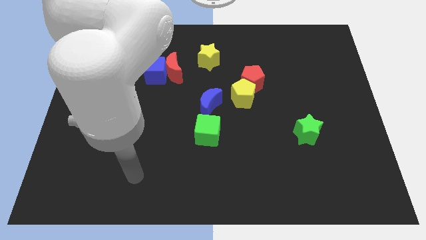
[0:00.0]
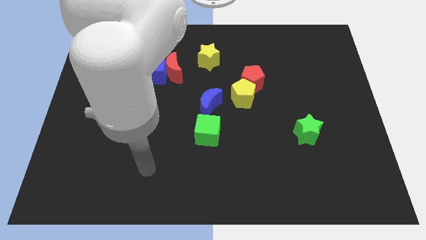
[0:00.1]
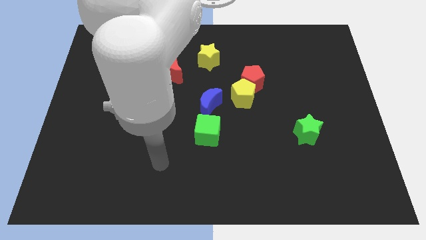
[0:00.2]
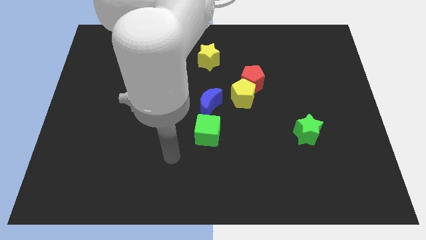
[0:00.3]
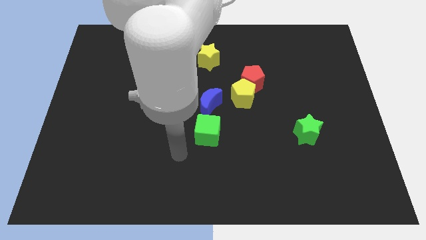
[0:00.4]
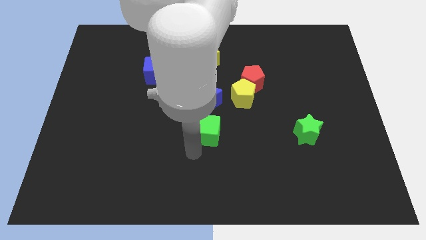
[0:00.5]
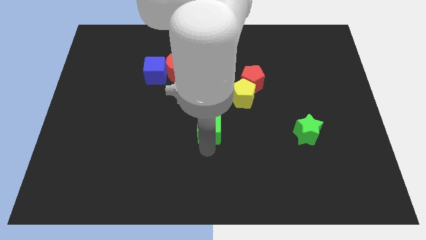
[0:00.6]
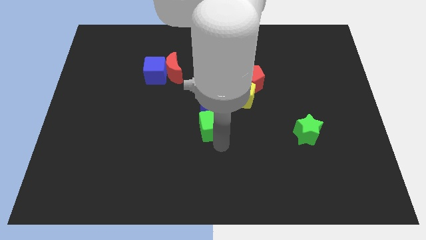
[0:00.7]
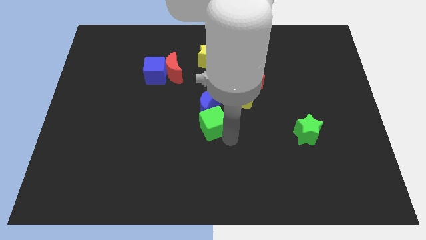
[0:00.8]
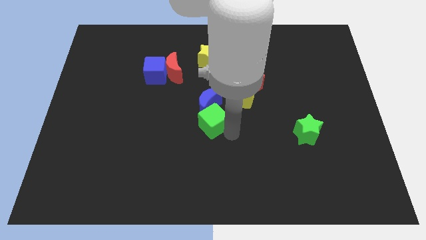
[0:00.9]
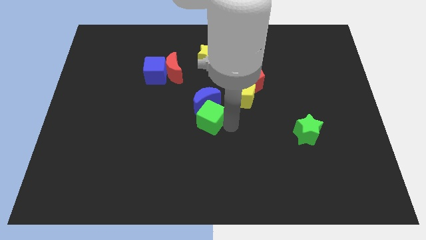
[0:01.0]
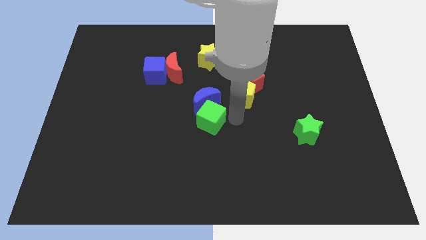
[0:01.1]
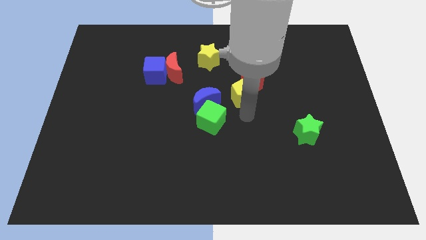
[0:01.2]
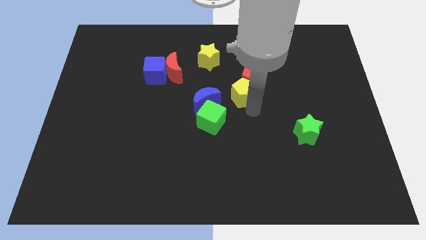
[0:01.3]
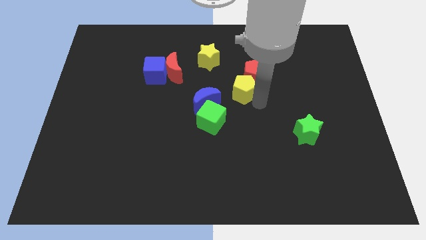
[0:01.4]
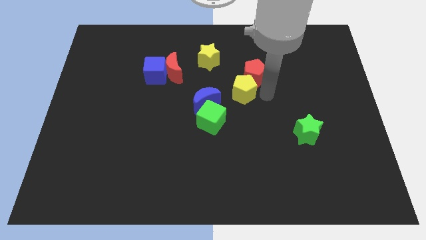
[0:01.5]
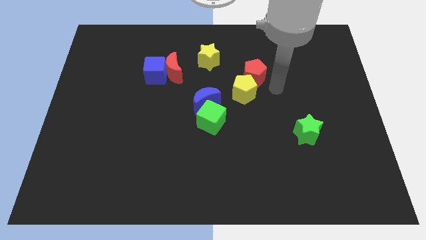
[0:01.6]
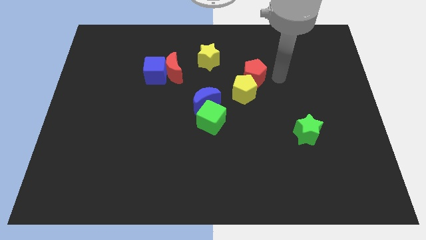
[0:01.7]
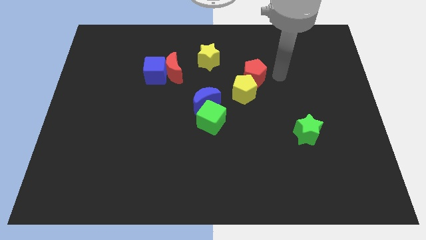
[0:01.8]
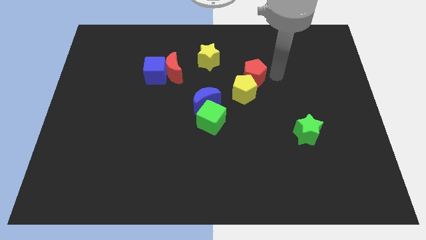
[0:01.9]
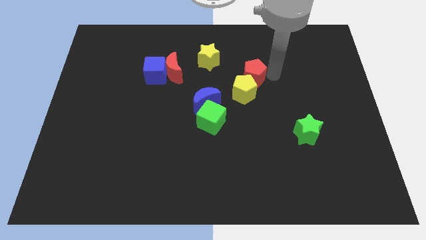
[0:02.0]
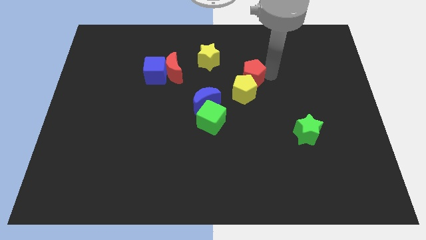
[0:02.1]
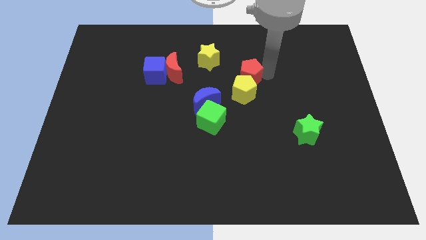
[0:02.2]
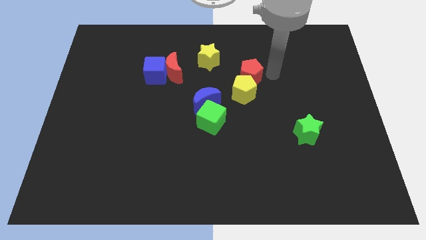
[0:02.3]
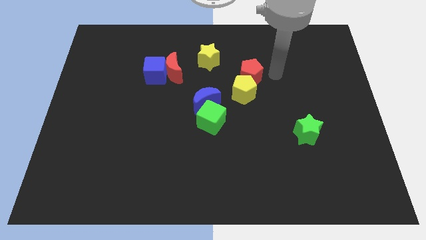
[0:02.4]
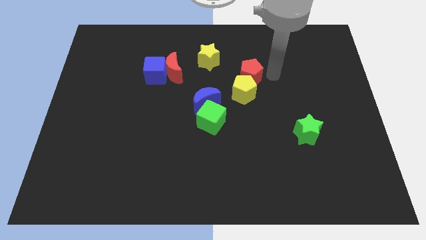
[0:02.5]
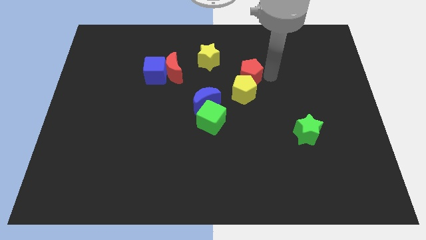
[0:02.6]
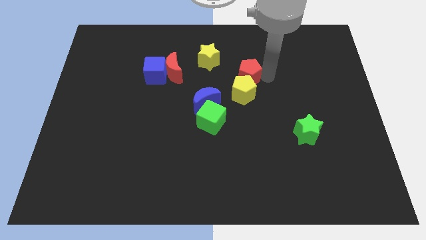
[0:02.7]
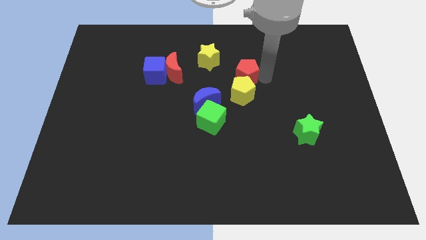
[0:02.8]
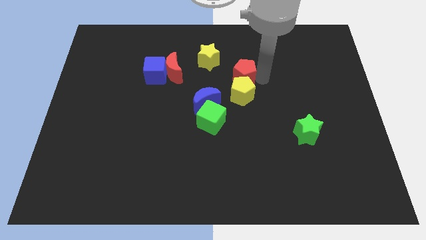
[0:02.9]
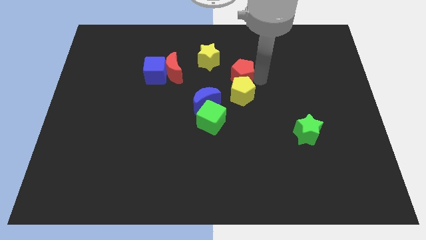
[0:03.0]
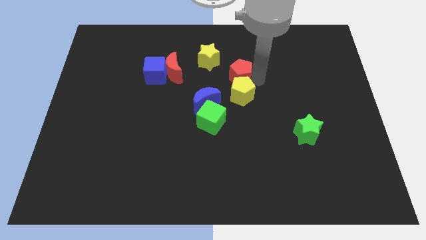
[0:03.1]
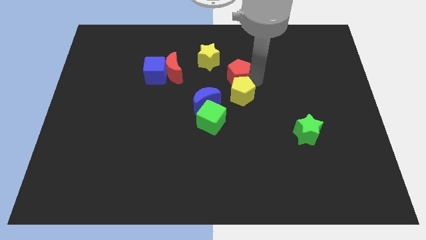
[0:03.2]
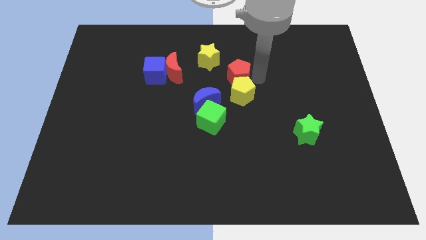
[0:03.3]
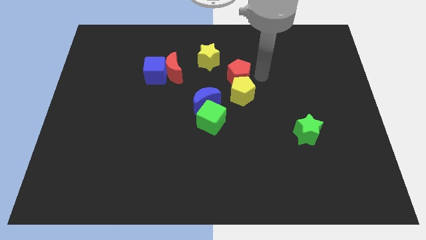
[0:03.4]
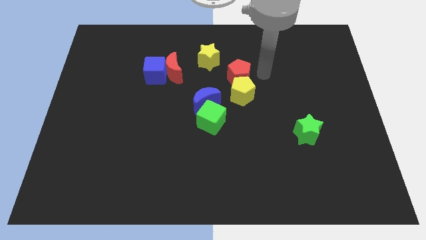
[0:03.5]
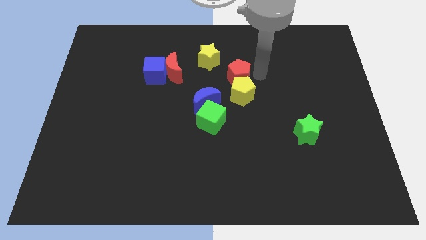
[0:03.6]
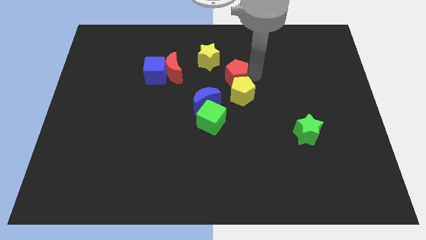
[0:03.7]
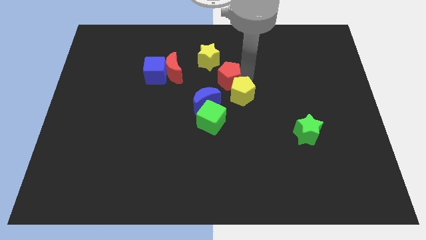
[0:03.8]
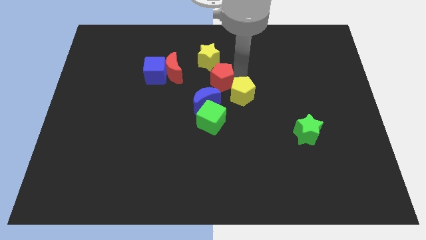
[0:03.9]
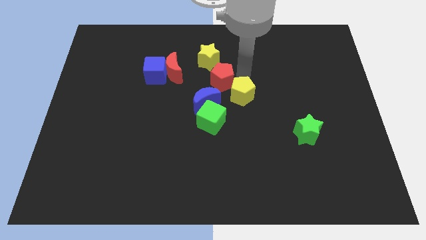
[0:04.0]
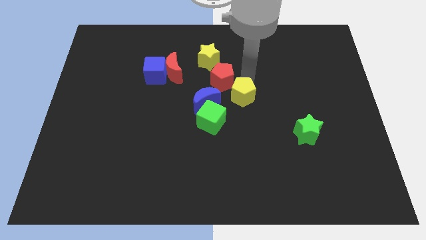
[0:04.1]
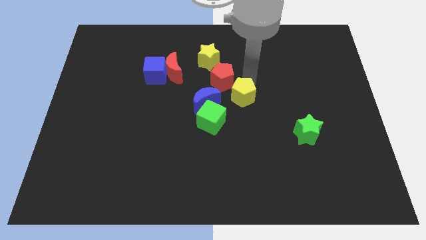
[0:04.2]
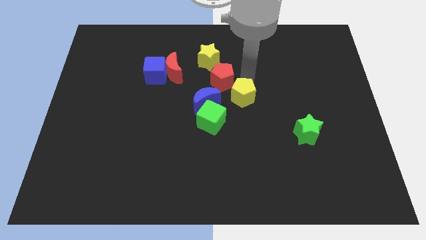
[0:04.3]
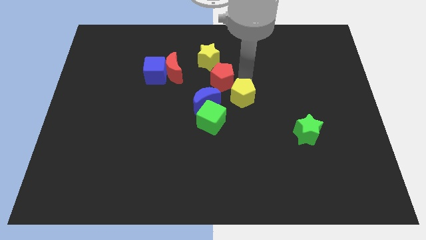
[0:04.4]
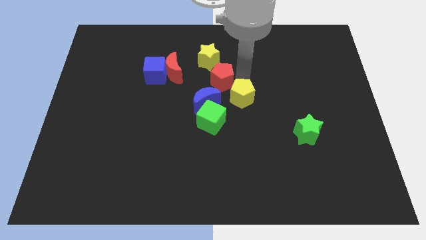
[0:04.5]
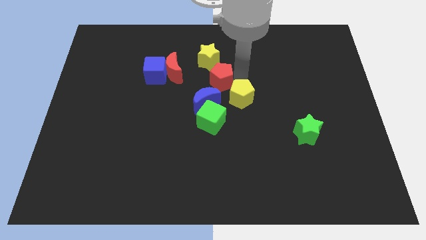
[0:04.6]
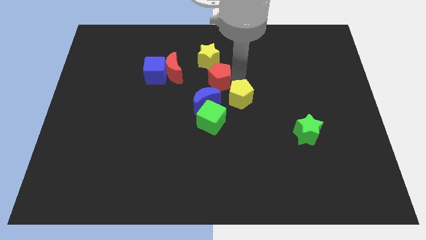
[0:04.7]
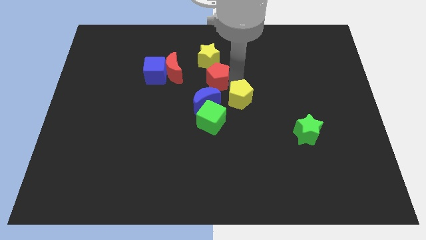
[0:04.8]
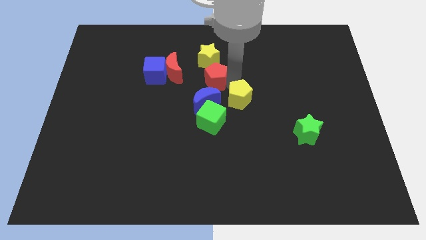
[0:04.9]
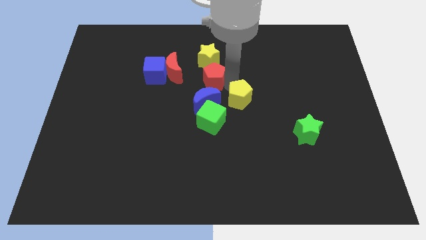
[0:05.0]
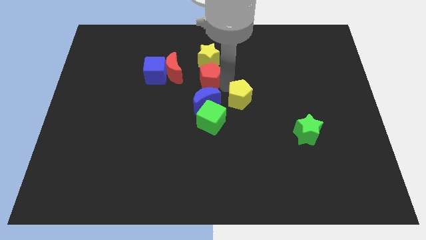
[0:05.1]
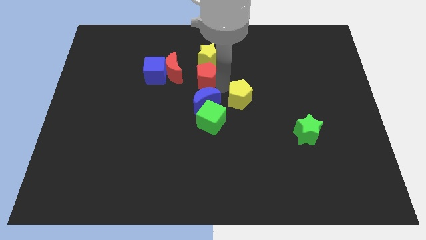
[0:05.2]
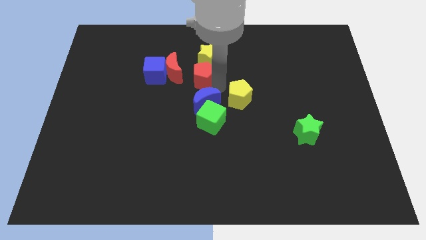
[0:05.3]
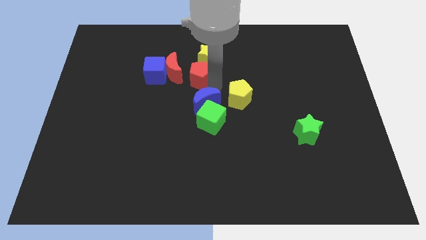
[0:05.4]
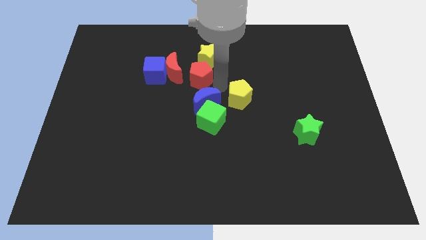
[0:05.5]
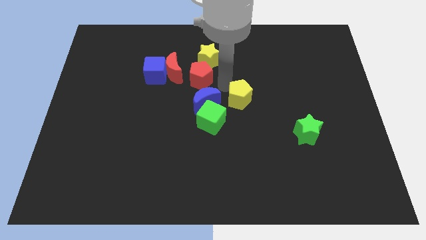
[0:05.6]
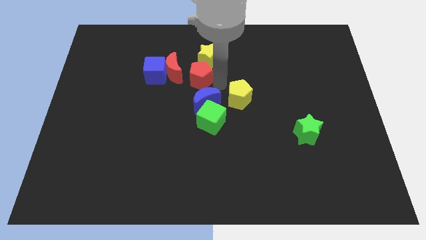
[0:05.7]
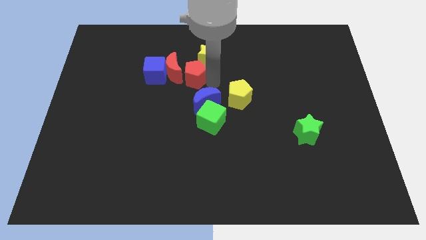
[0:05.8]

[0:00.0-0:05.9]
push the red pentagon to the red moon

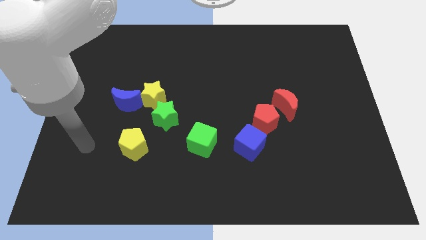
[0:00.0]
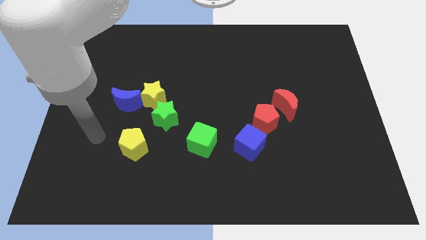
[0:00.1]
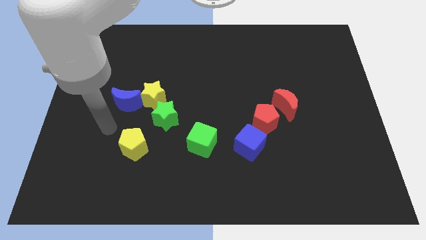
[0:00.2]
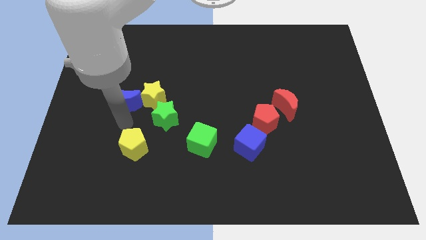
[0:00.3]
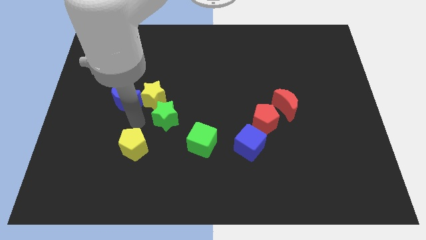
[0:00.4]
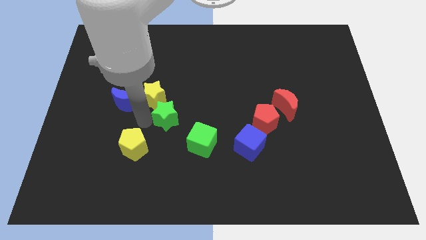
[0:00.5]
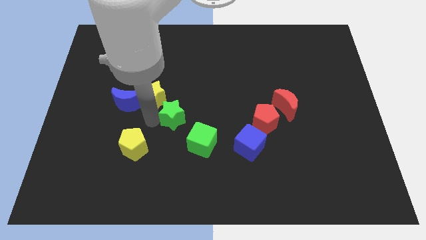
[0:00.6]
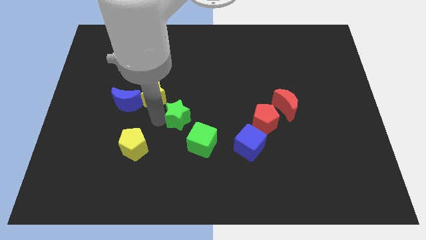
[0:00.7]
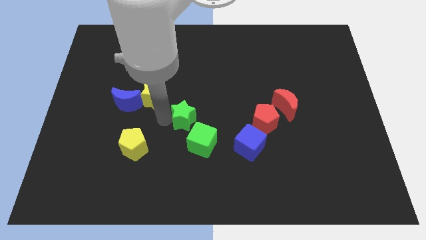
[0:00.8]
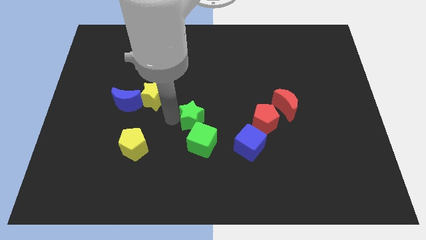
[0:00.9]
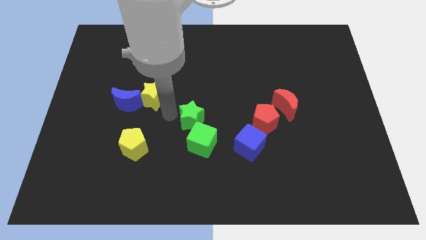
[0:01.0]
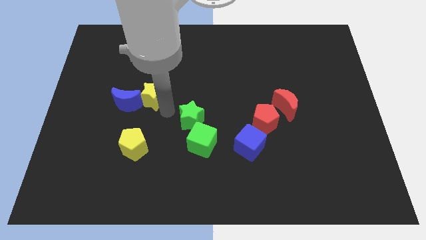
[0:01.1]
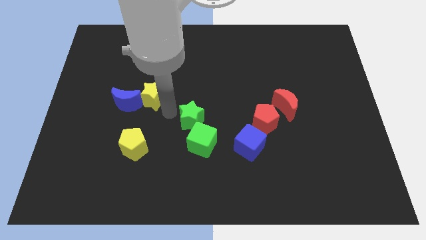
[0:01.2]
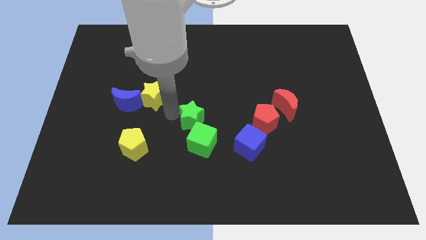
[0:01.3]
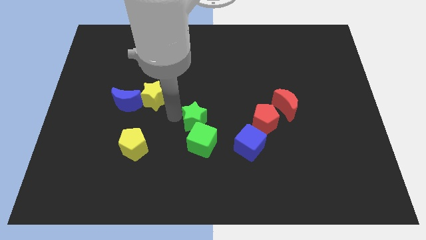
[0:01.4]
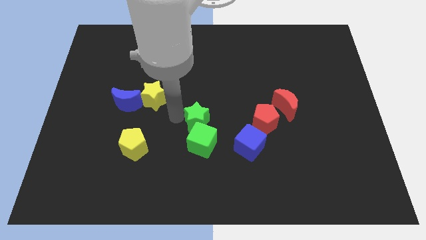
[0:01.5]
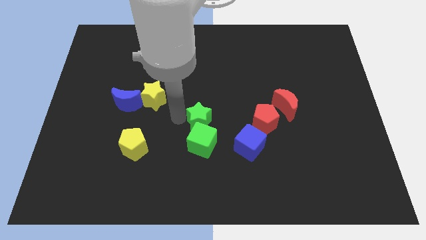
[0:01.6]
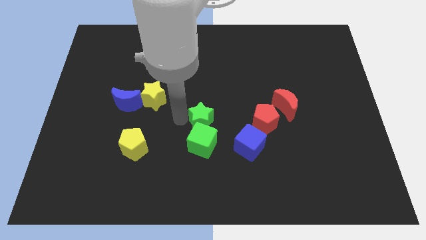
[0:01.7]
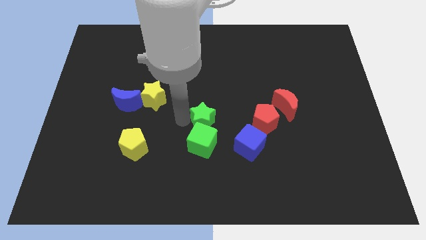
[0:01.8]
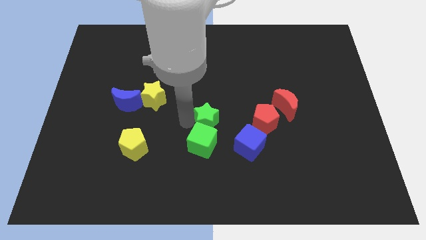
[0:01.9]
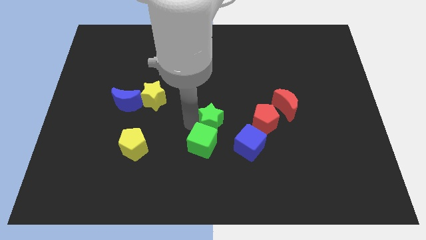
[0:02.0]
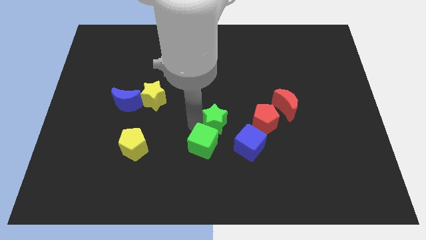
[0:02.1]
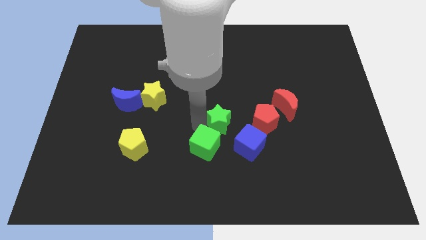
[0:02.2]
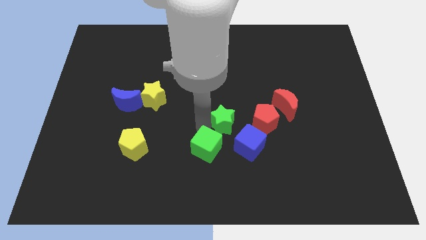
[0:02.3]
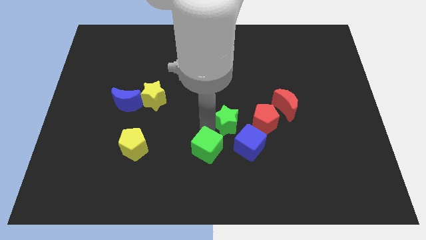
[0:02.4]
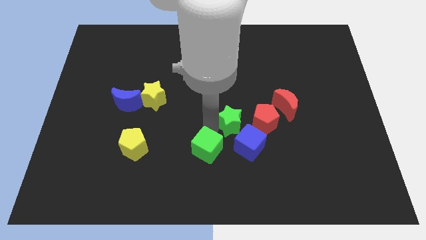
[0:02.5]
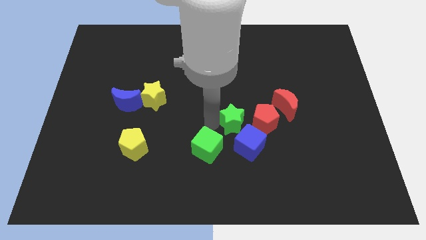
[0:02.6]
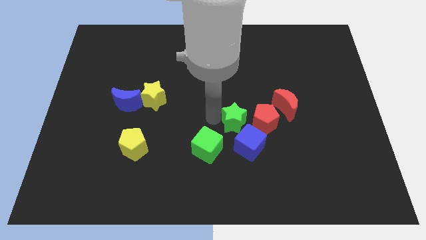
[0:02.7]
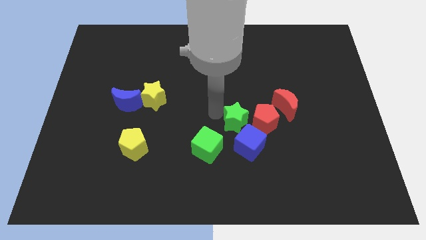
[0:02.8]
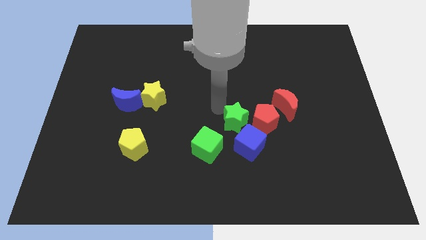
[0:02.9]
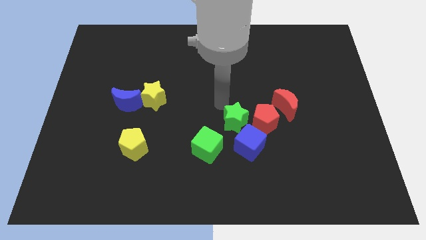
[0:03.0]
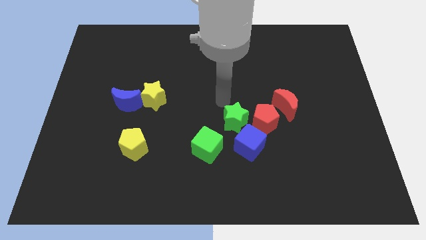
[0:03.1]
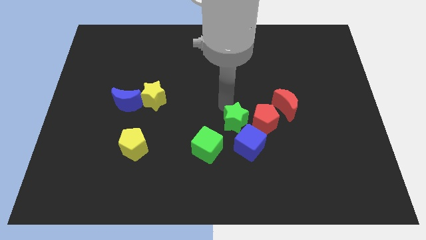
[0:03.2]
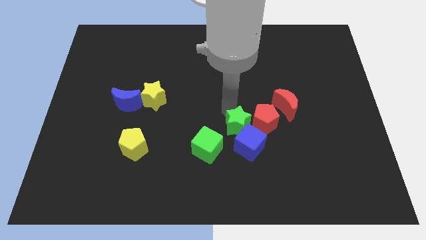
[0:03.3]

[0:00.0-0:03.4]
move the green star next to the blue cube
